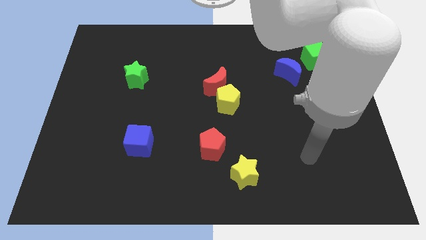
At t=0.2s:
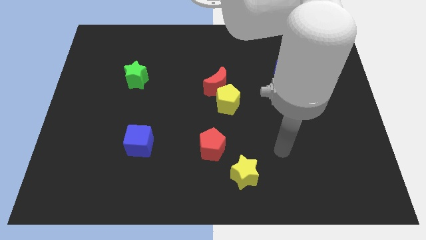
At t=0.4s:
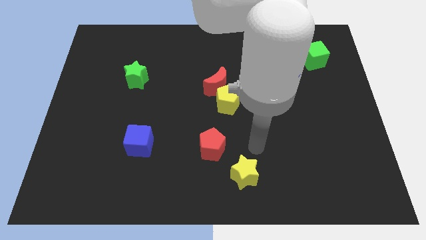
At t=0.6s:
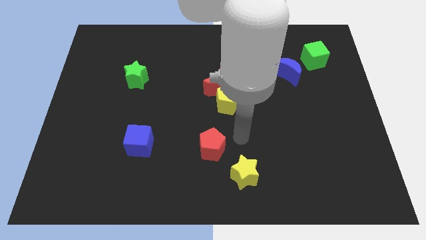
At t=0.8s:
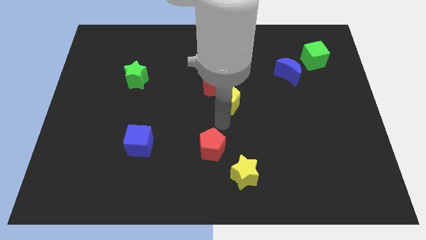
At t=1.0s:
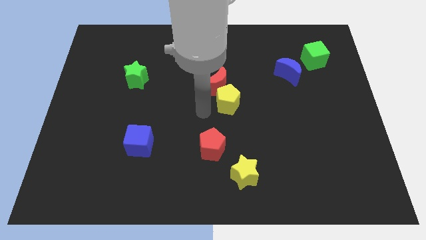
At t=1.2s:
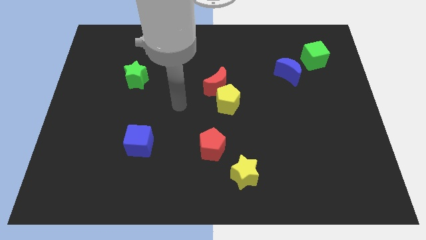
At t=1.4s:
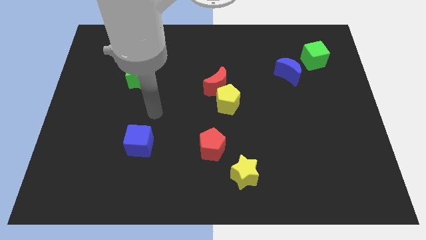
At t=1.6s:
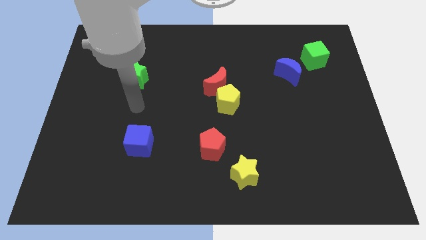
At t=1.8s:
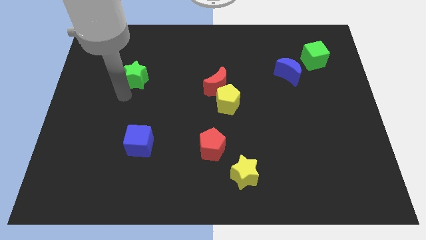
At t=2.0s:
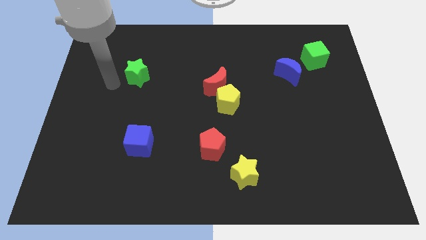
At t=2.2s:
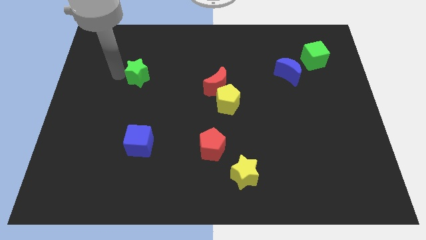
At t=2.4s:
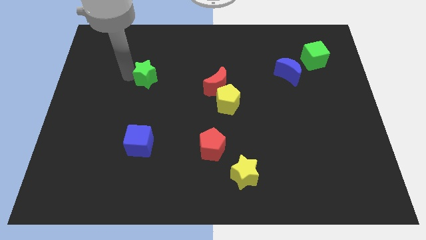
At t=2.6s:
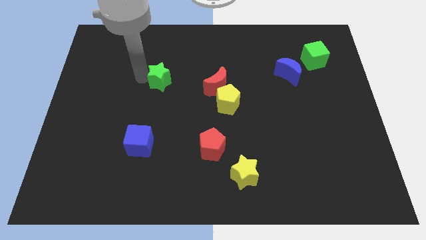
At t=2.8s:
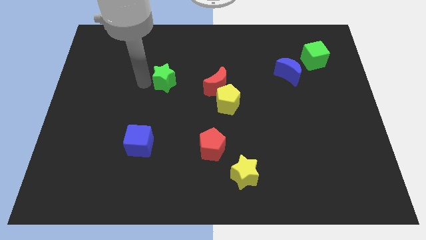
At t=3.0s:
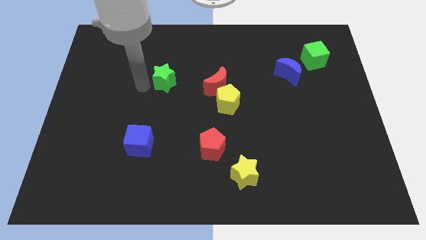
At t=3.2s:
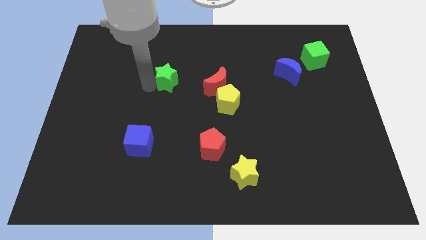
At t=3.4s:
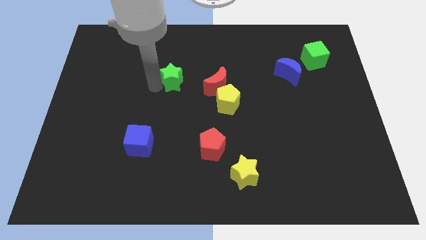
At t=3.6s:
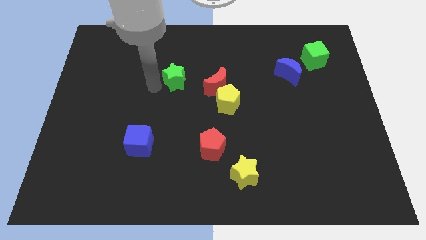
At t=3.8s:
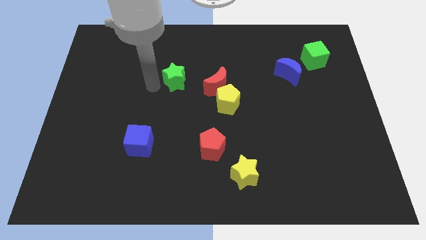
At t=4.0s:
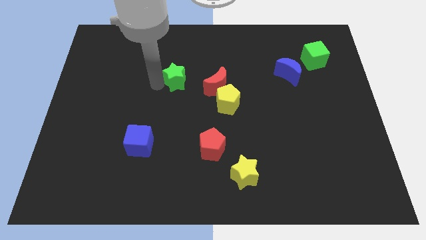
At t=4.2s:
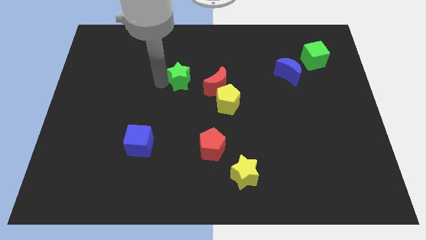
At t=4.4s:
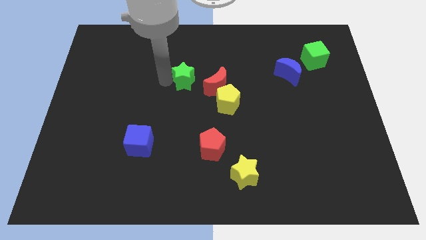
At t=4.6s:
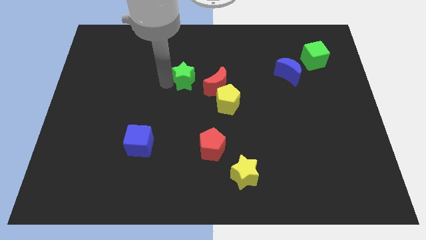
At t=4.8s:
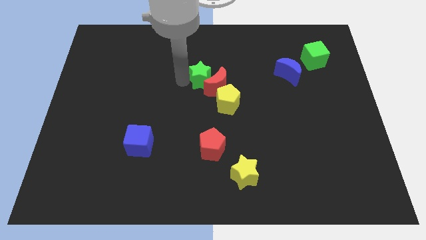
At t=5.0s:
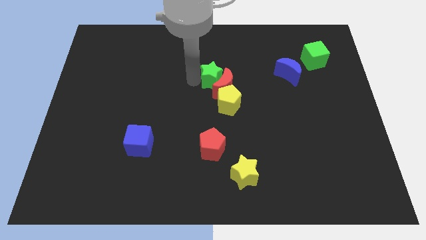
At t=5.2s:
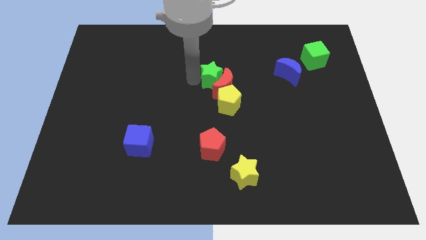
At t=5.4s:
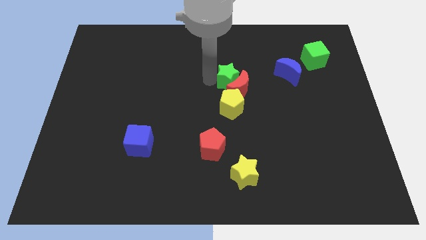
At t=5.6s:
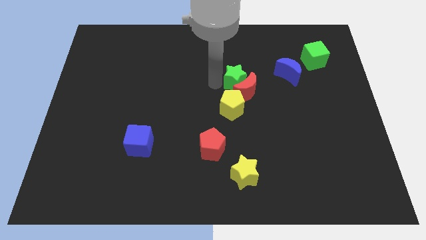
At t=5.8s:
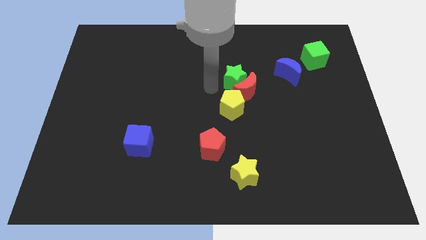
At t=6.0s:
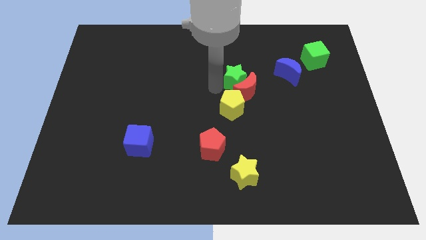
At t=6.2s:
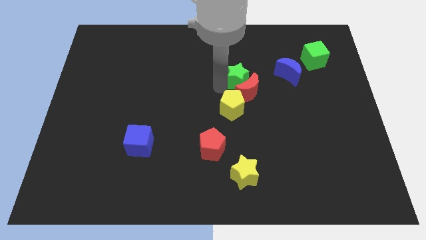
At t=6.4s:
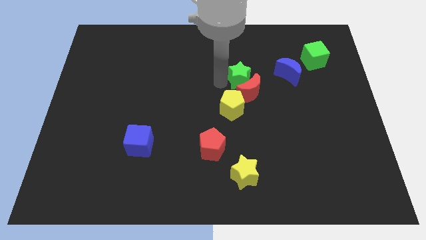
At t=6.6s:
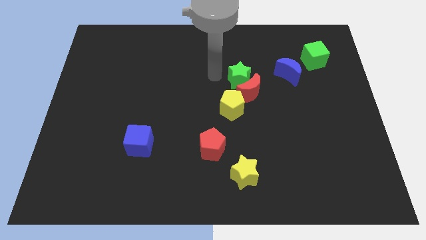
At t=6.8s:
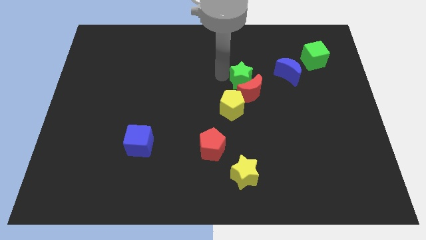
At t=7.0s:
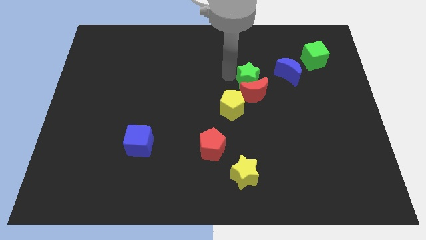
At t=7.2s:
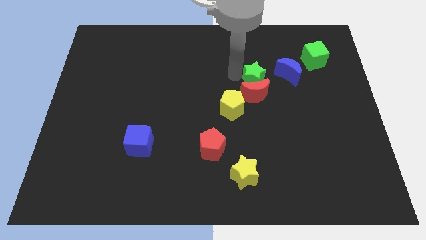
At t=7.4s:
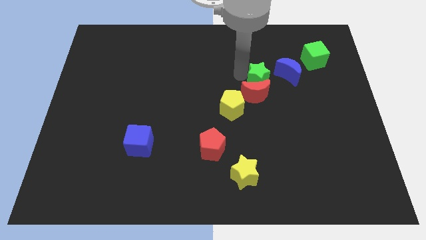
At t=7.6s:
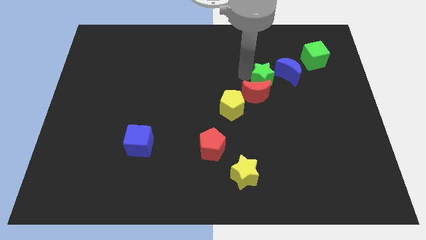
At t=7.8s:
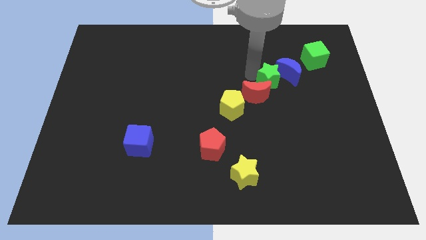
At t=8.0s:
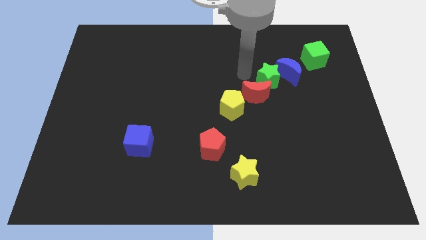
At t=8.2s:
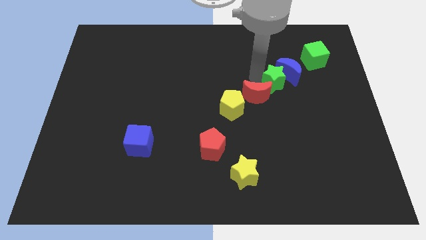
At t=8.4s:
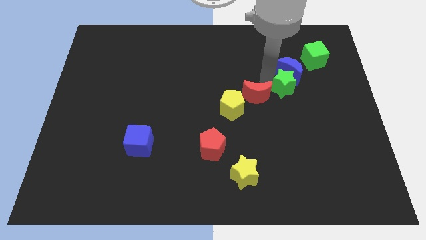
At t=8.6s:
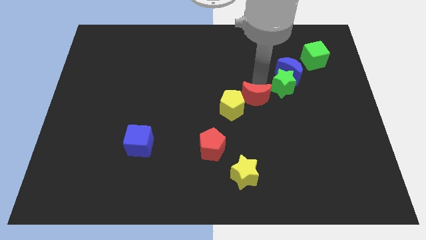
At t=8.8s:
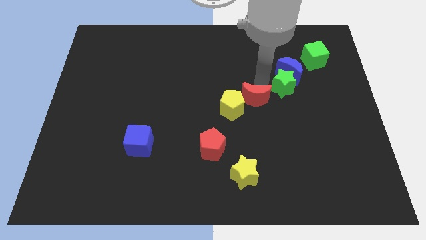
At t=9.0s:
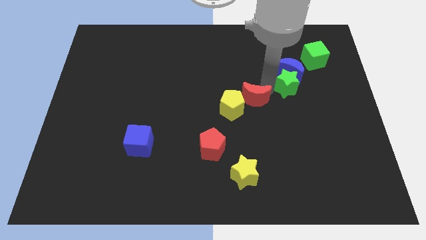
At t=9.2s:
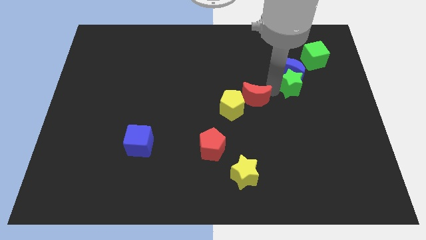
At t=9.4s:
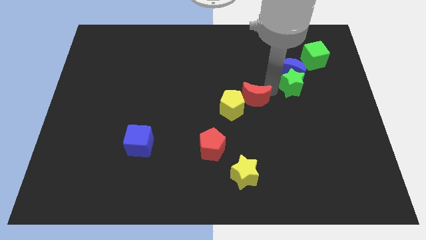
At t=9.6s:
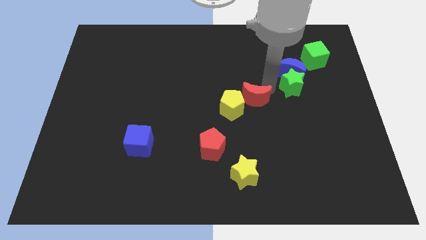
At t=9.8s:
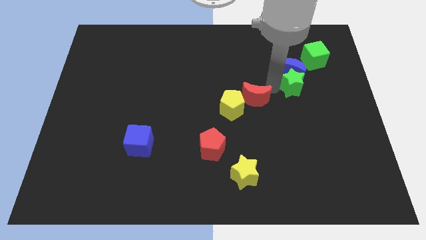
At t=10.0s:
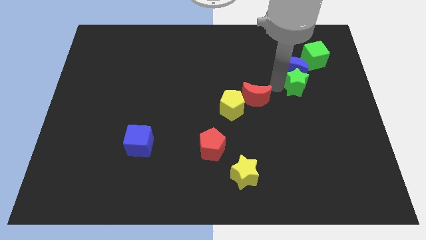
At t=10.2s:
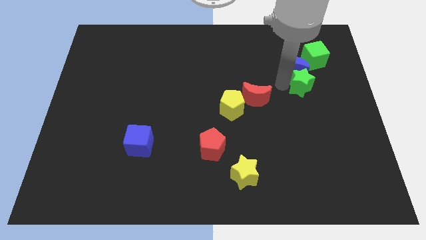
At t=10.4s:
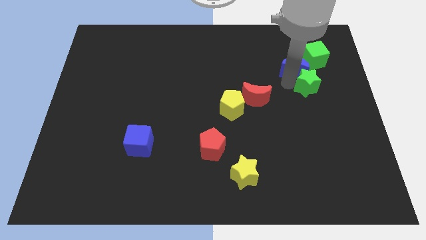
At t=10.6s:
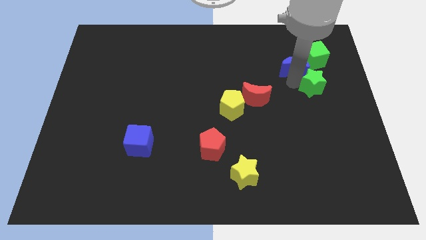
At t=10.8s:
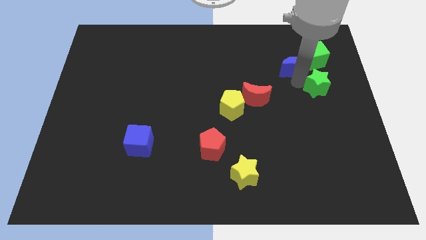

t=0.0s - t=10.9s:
put the green star to the right side
